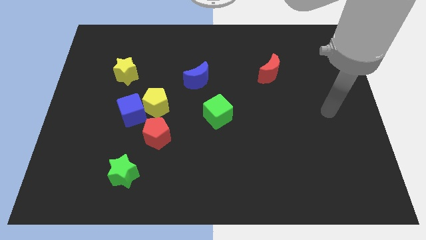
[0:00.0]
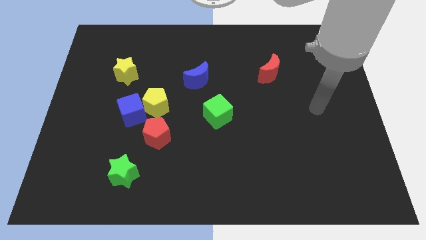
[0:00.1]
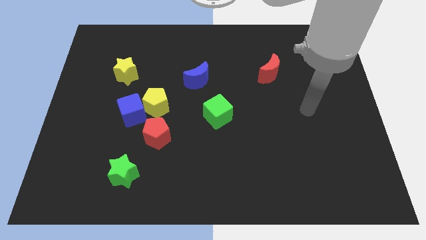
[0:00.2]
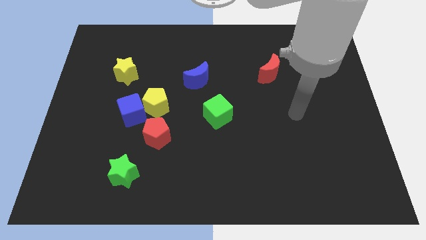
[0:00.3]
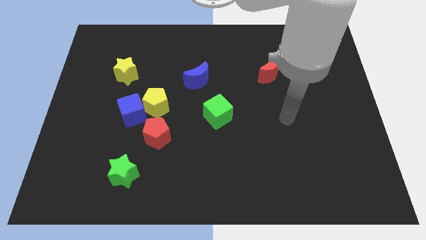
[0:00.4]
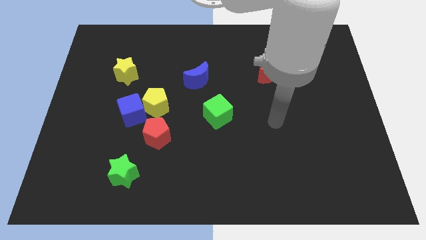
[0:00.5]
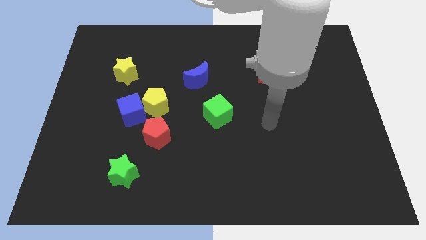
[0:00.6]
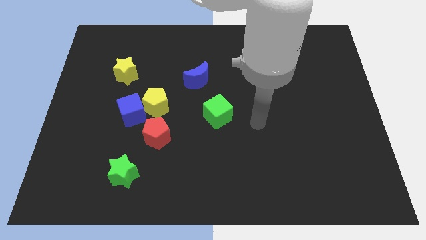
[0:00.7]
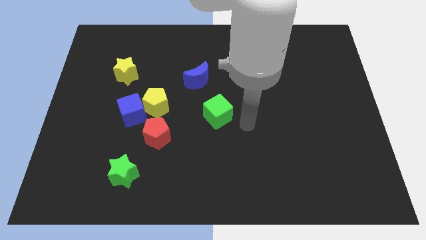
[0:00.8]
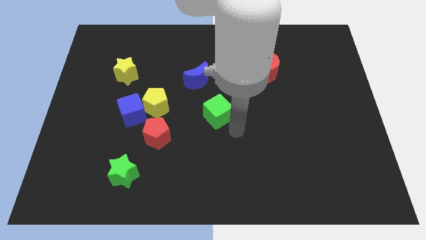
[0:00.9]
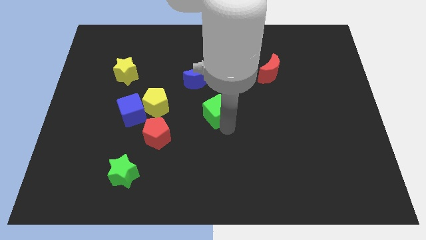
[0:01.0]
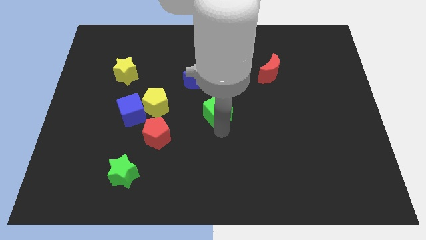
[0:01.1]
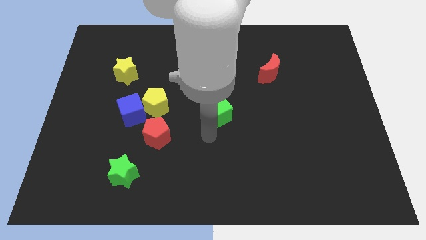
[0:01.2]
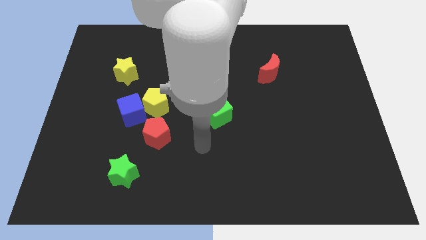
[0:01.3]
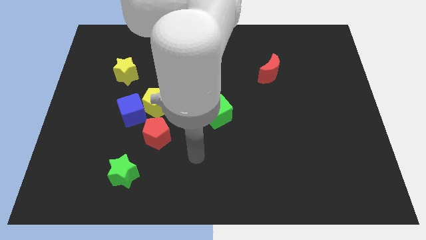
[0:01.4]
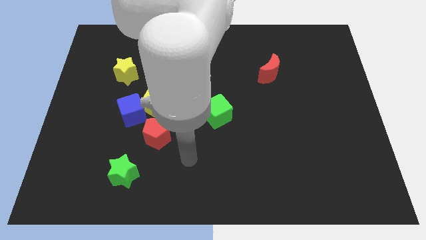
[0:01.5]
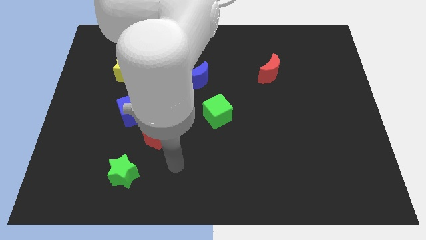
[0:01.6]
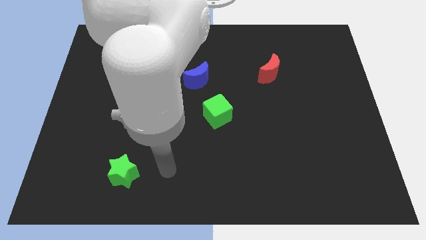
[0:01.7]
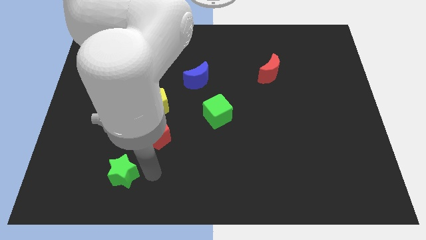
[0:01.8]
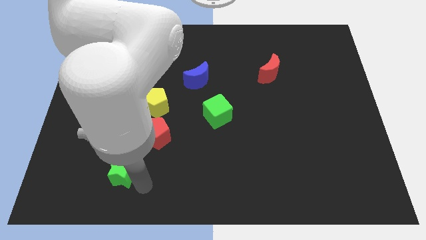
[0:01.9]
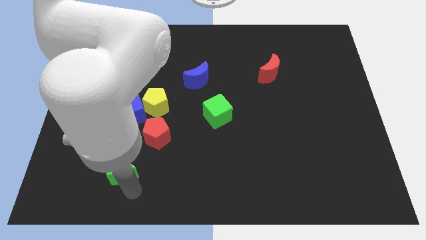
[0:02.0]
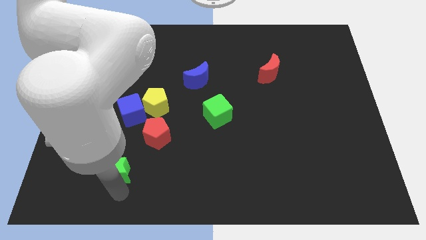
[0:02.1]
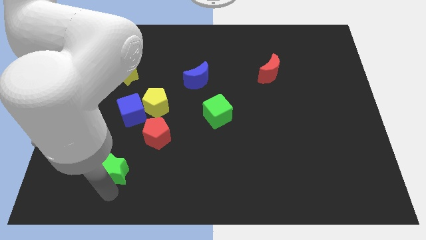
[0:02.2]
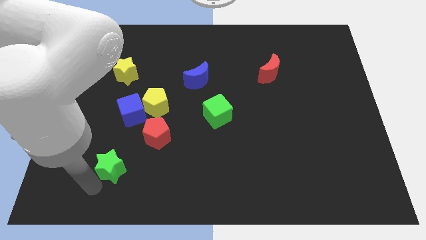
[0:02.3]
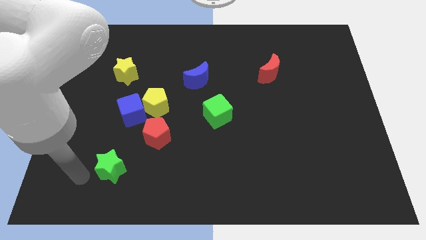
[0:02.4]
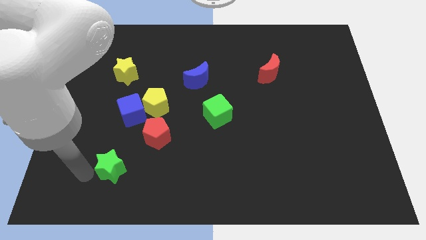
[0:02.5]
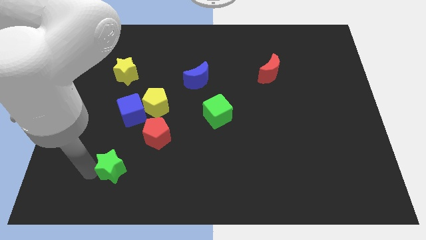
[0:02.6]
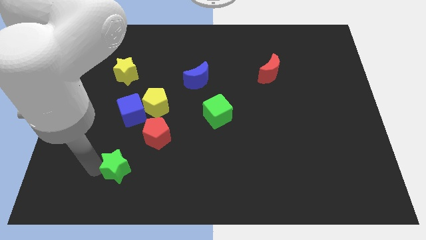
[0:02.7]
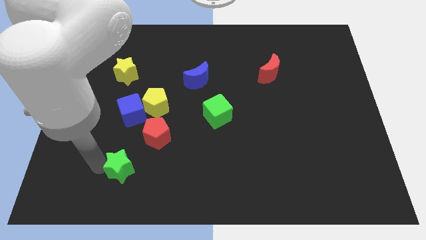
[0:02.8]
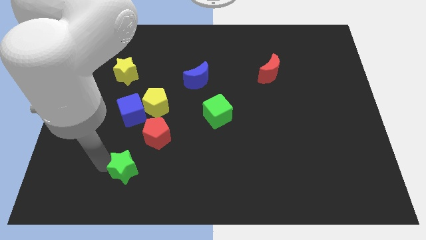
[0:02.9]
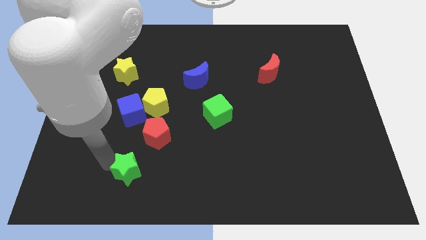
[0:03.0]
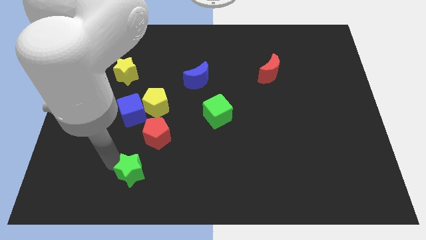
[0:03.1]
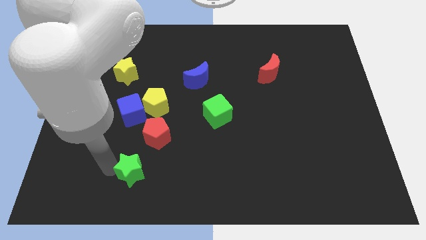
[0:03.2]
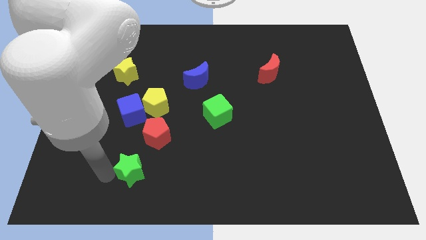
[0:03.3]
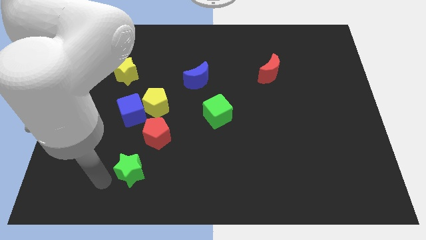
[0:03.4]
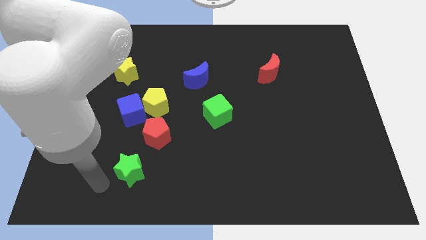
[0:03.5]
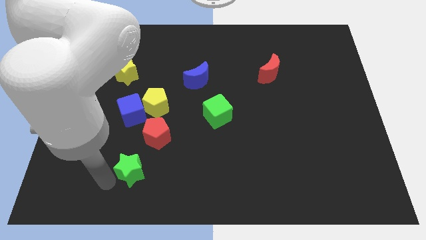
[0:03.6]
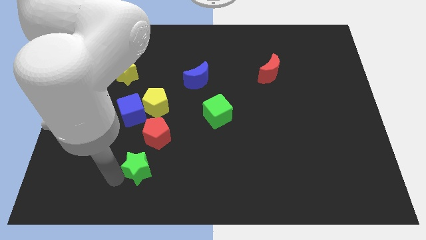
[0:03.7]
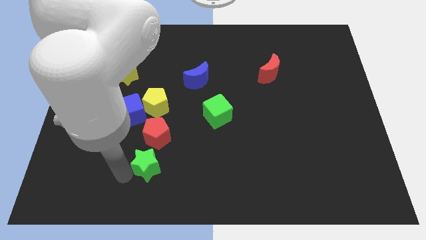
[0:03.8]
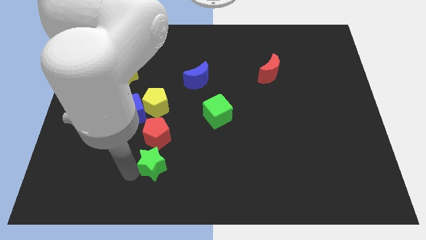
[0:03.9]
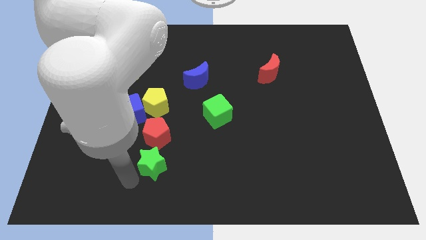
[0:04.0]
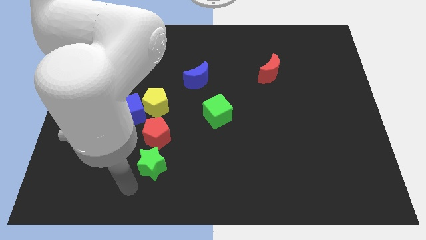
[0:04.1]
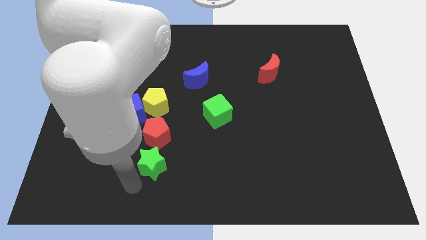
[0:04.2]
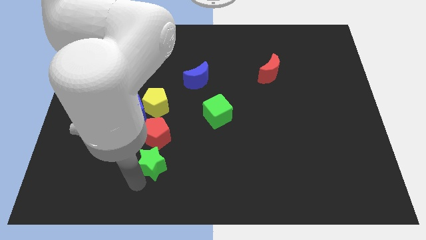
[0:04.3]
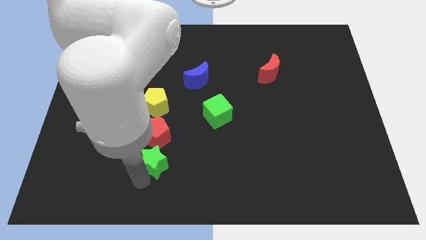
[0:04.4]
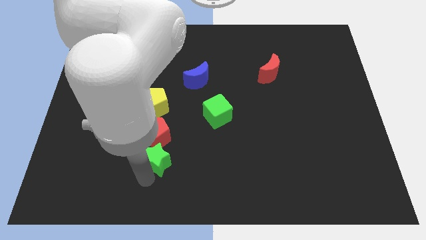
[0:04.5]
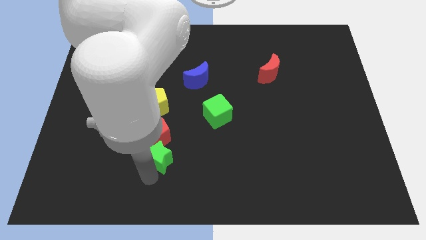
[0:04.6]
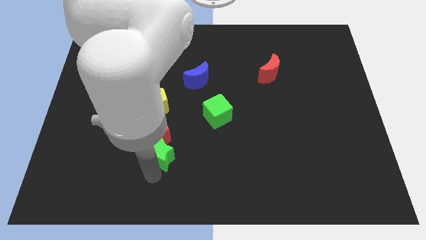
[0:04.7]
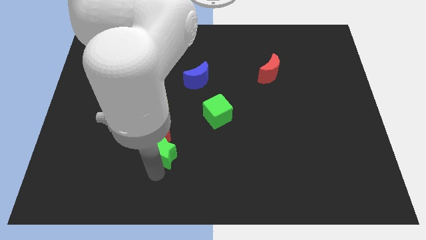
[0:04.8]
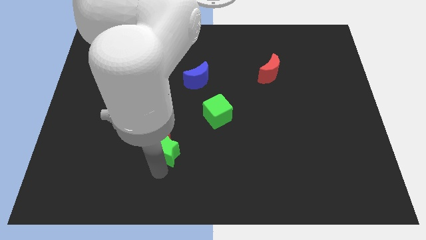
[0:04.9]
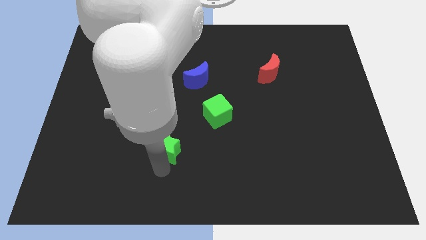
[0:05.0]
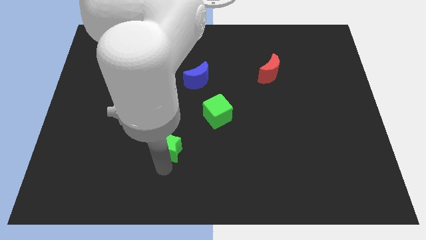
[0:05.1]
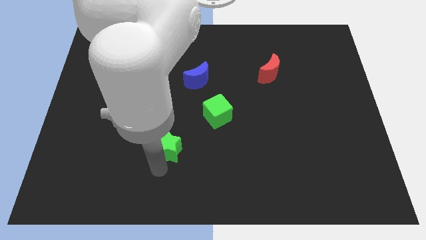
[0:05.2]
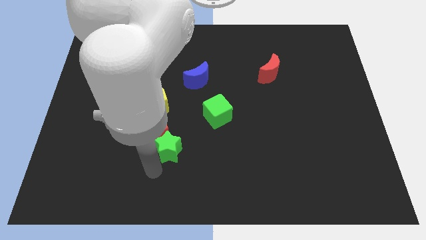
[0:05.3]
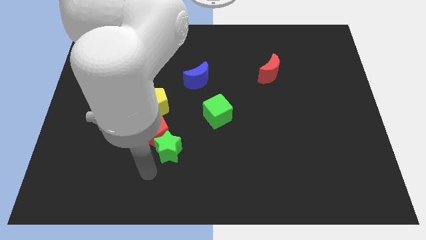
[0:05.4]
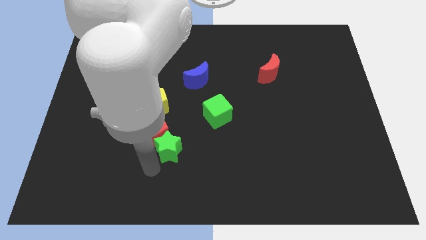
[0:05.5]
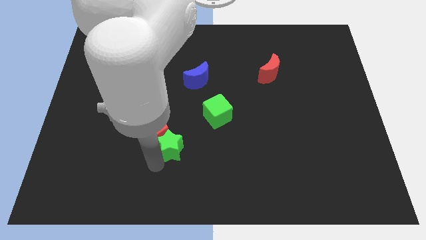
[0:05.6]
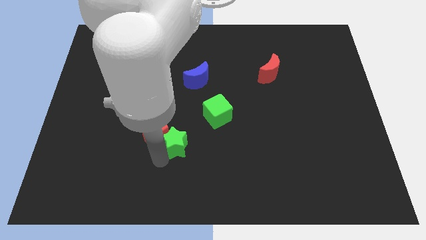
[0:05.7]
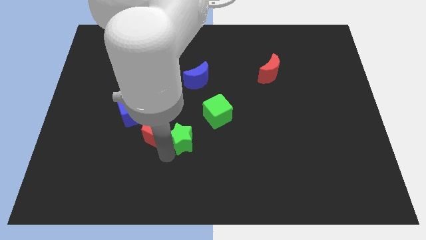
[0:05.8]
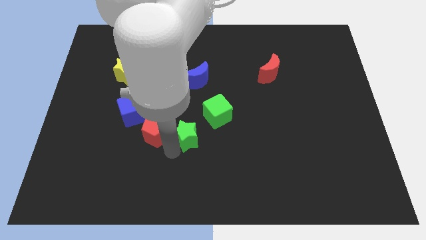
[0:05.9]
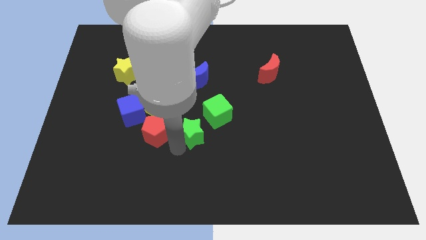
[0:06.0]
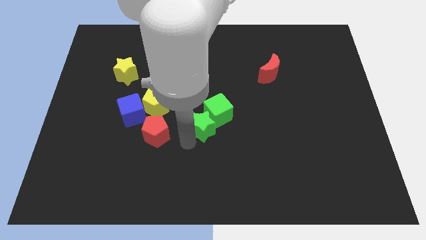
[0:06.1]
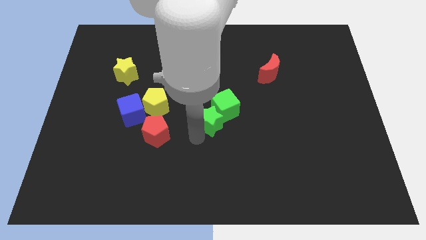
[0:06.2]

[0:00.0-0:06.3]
push the green star up and to the right diagonally

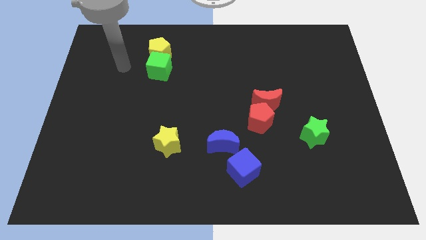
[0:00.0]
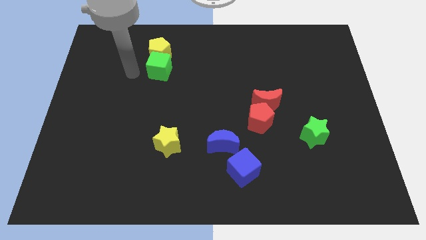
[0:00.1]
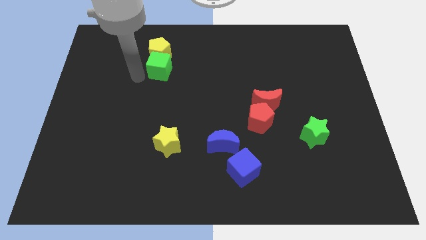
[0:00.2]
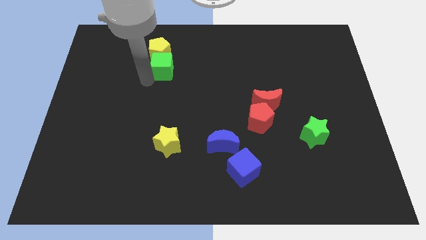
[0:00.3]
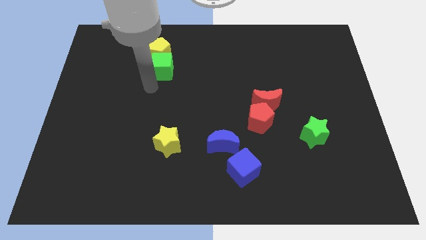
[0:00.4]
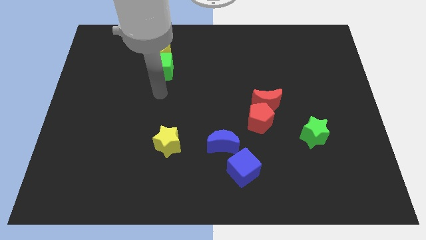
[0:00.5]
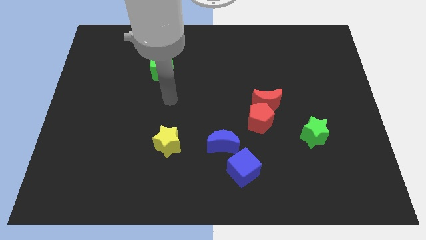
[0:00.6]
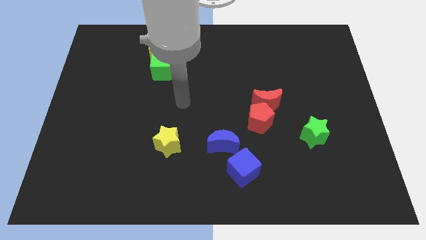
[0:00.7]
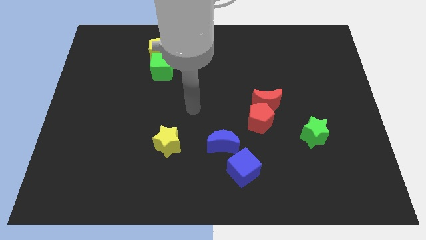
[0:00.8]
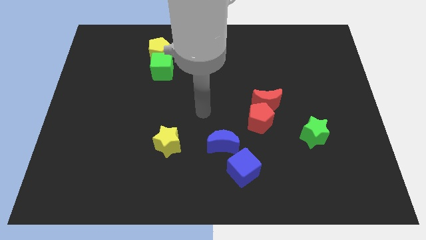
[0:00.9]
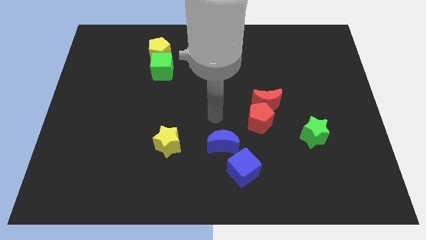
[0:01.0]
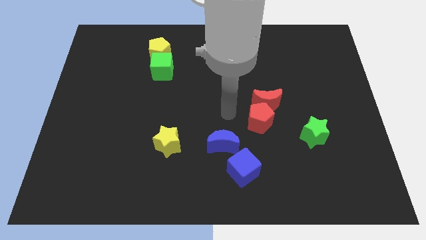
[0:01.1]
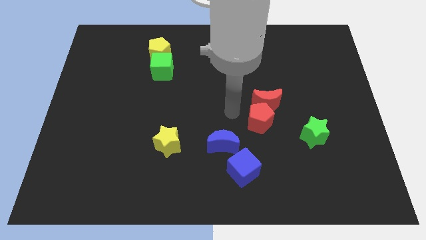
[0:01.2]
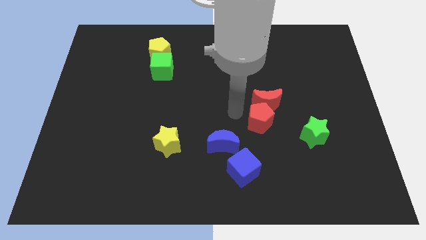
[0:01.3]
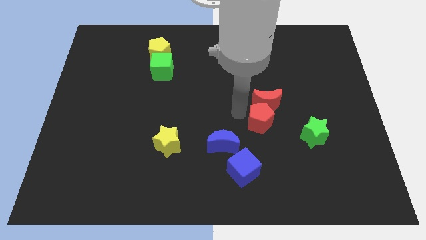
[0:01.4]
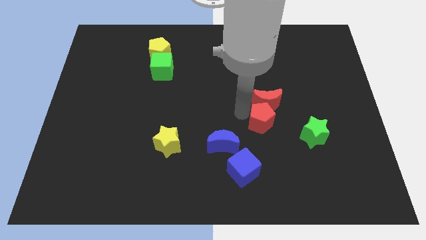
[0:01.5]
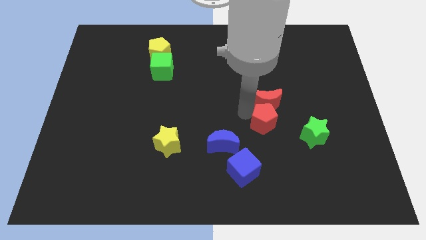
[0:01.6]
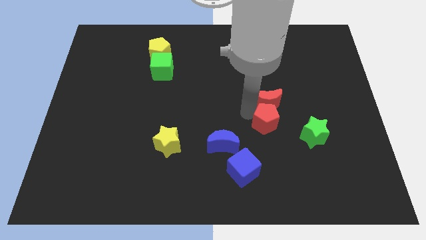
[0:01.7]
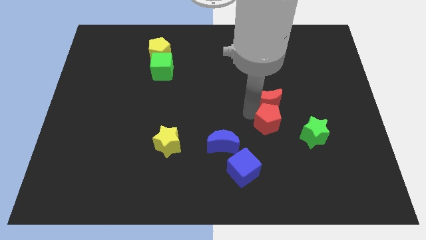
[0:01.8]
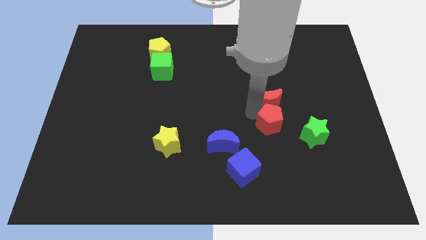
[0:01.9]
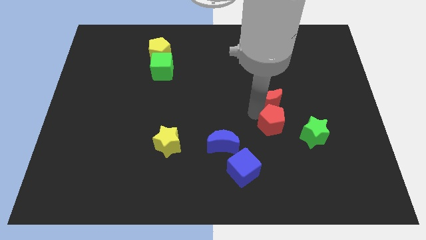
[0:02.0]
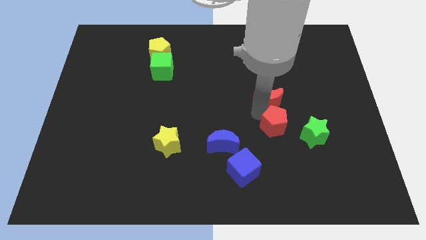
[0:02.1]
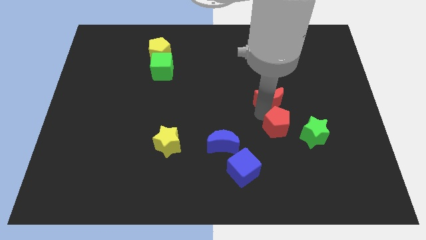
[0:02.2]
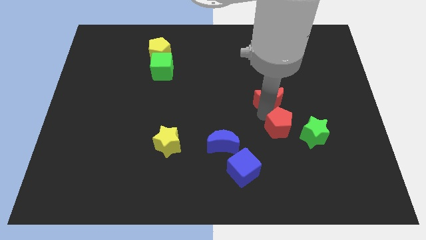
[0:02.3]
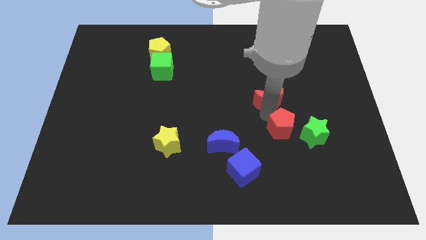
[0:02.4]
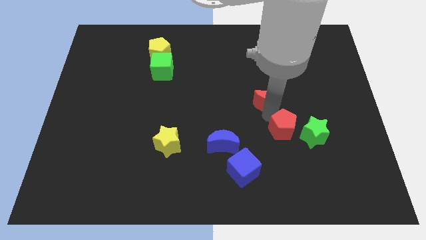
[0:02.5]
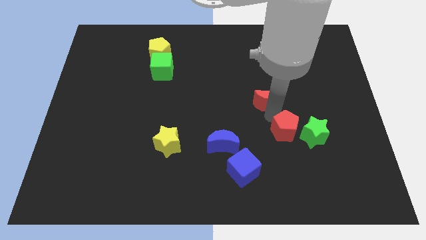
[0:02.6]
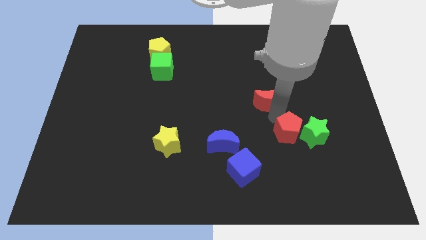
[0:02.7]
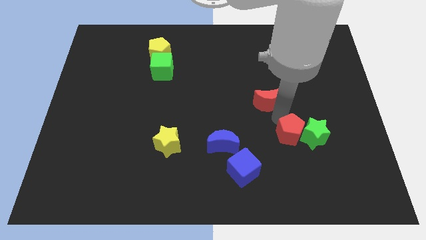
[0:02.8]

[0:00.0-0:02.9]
move the red pentagon slightly diagonally down and right
